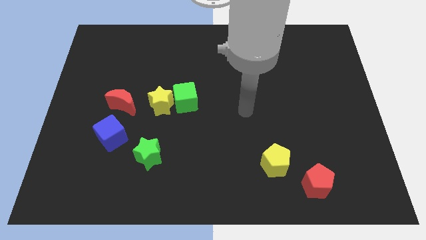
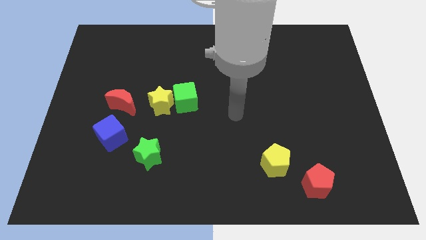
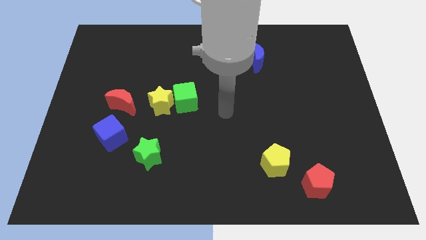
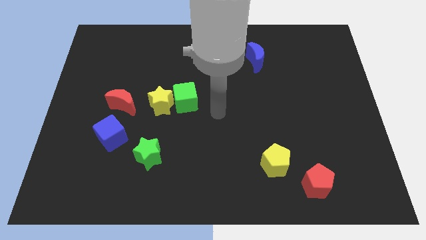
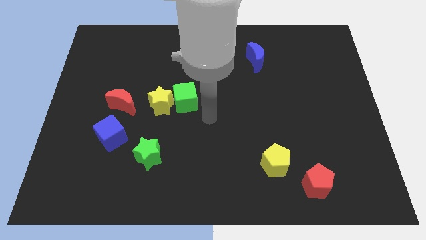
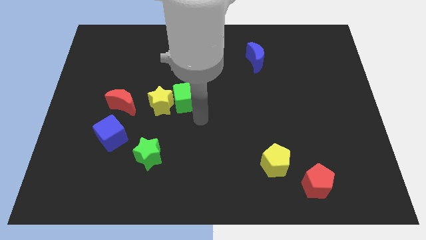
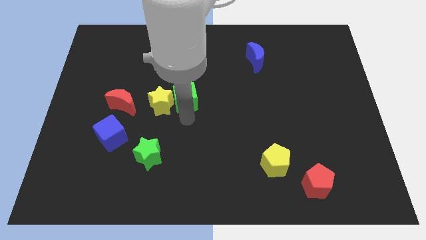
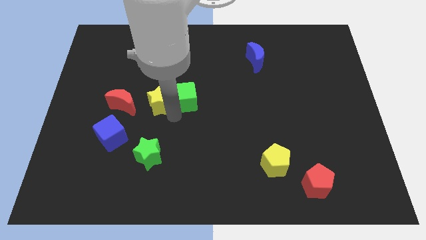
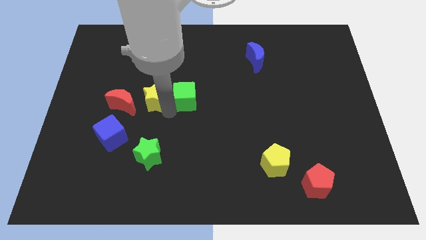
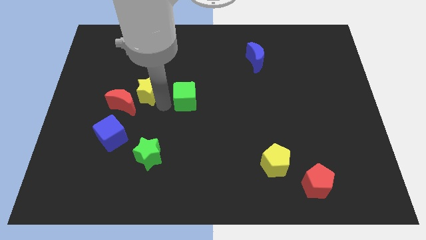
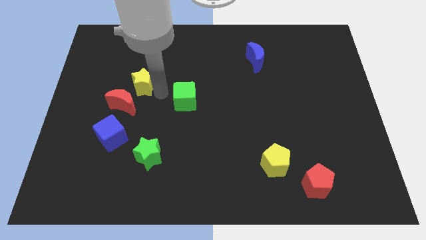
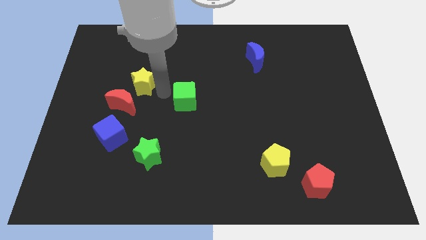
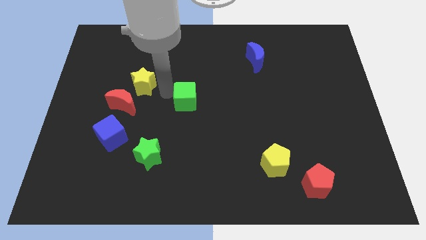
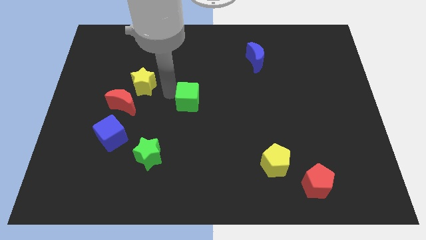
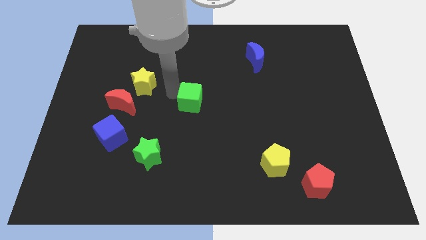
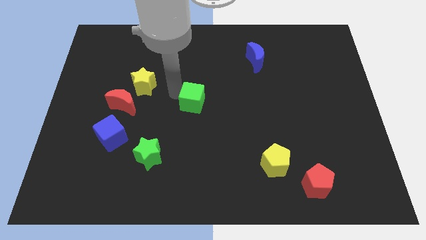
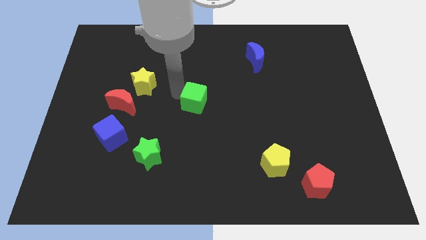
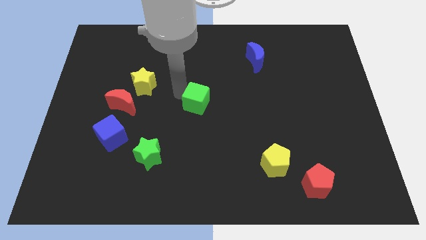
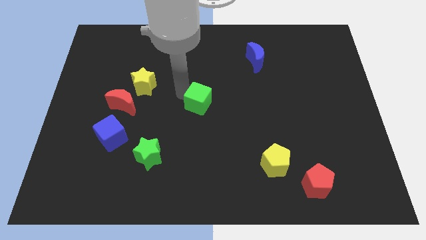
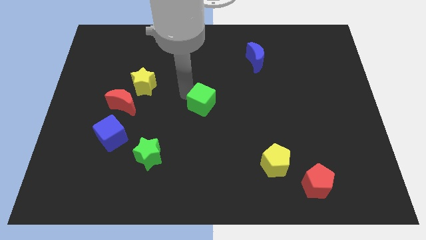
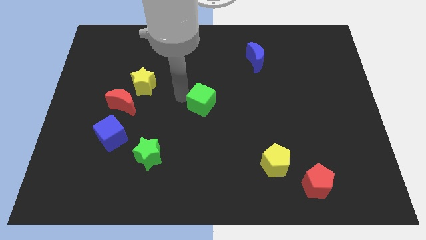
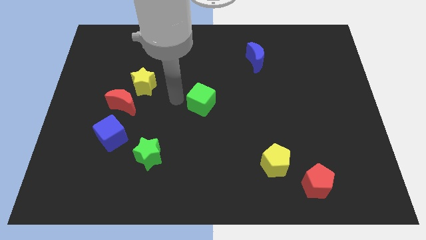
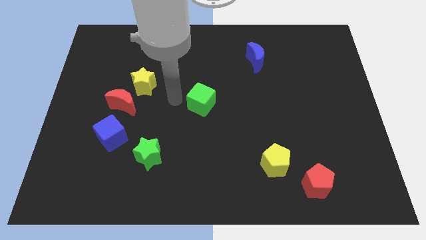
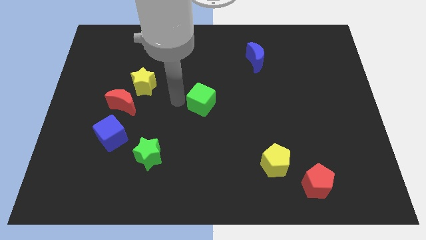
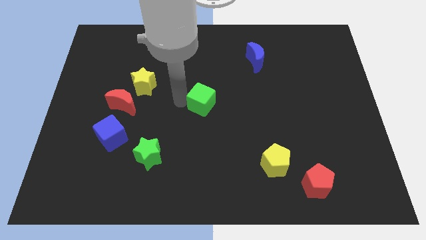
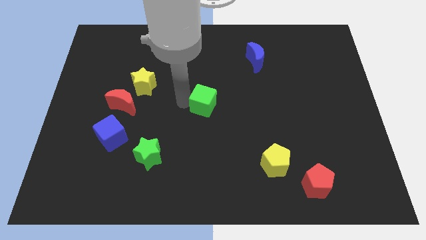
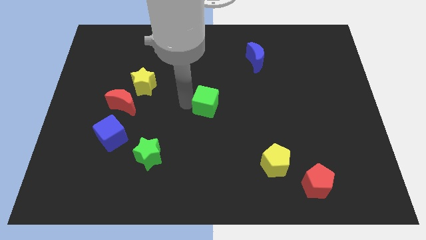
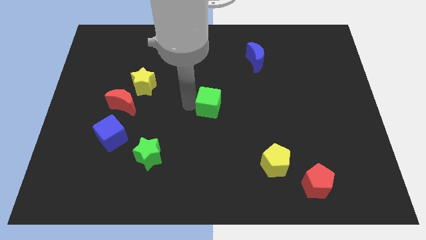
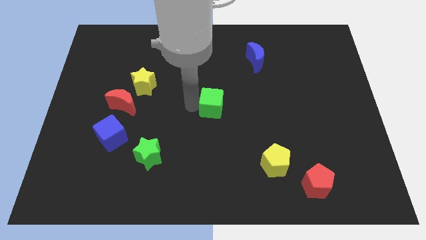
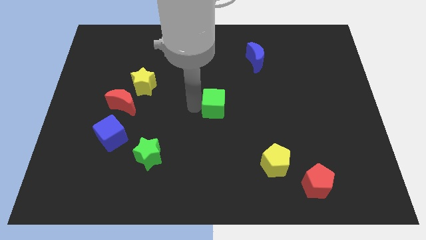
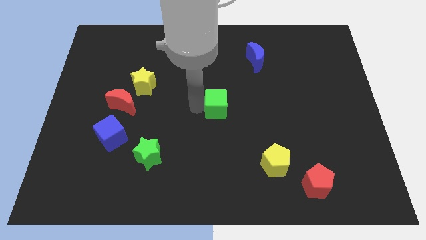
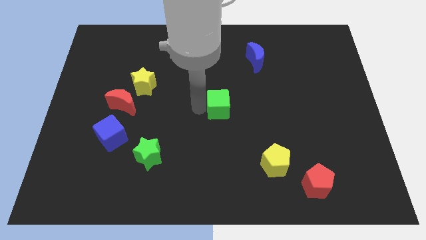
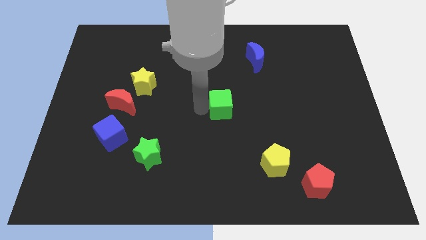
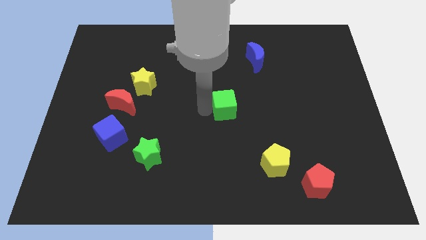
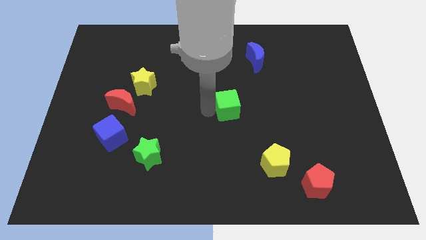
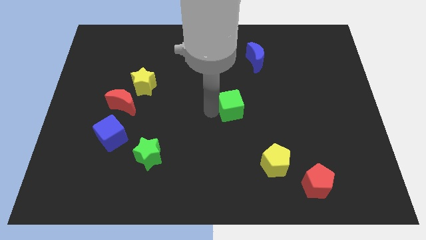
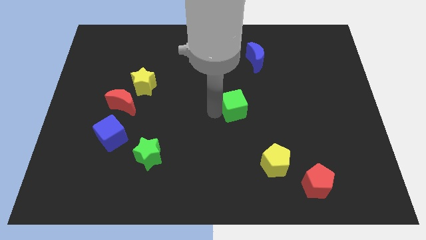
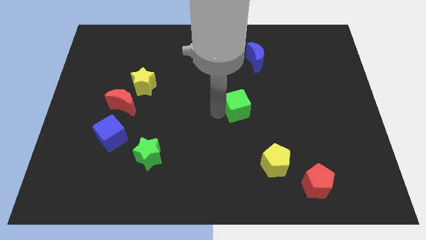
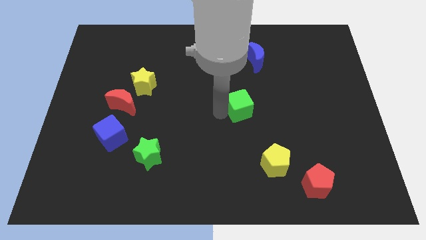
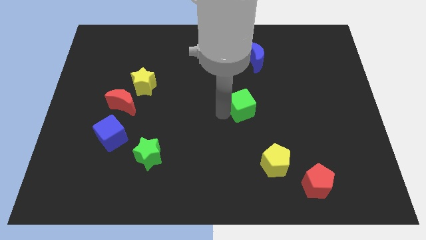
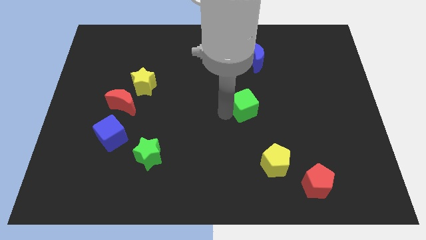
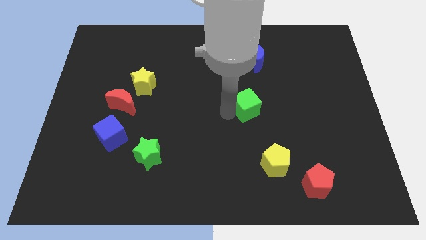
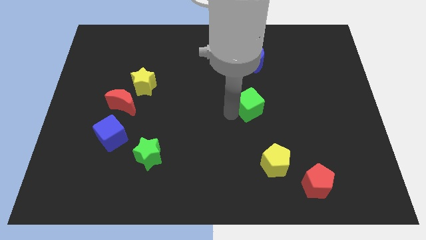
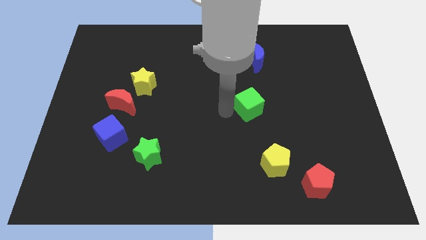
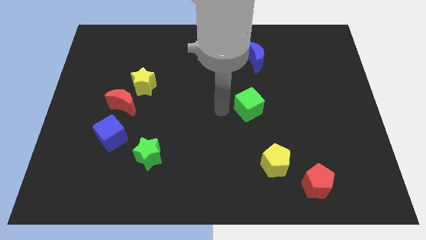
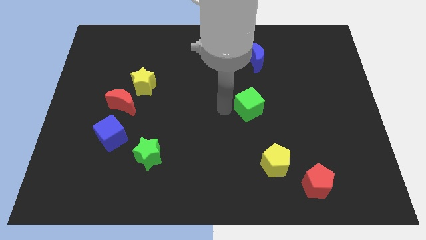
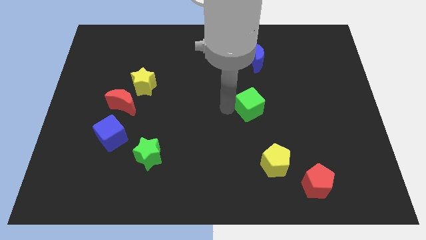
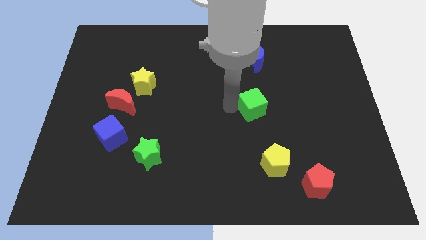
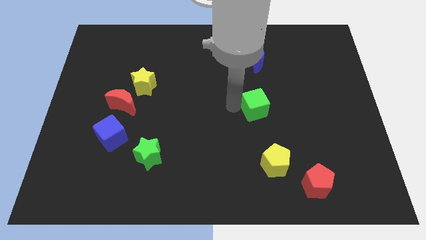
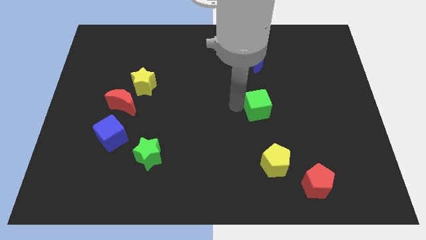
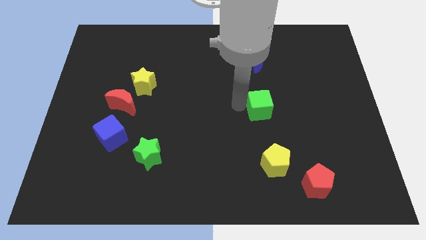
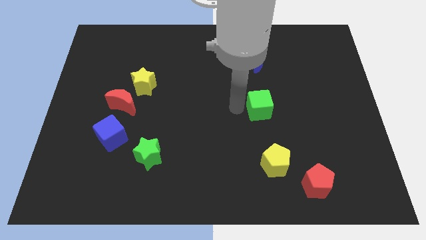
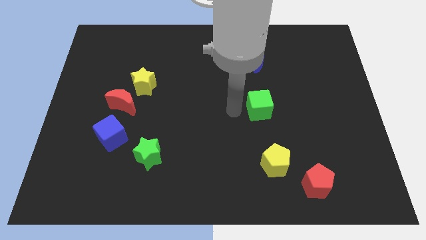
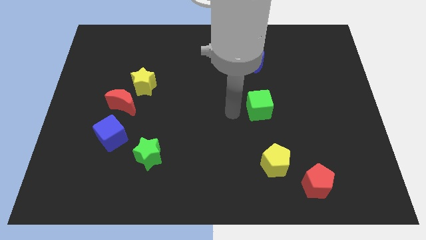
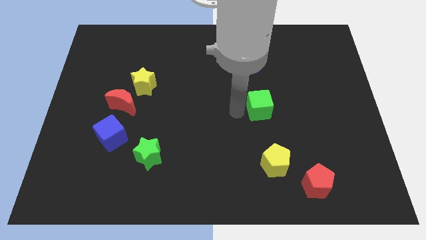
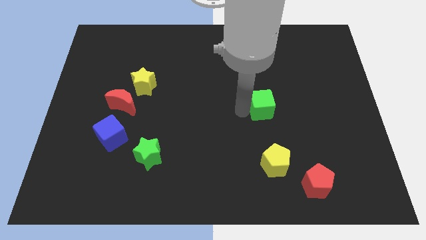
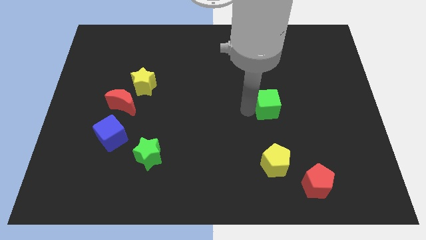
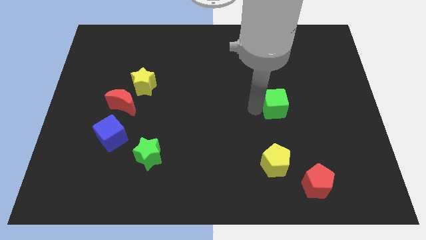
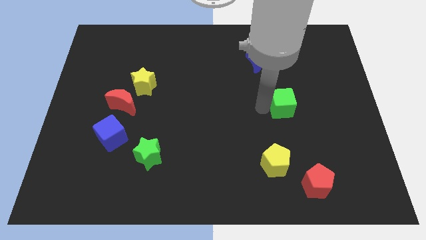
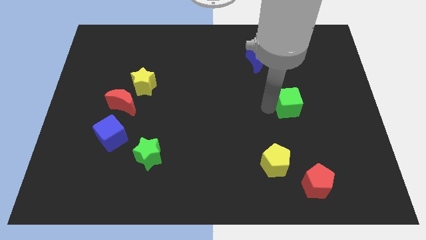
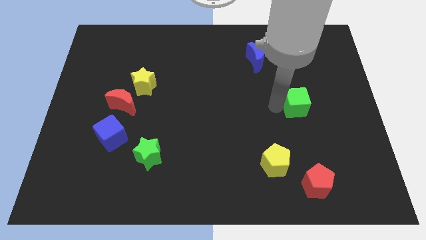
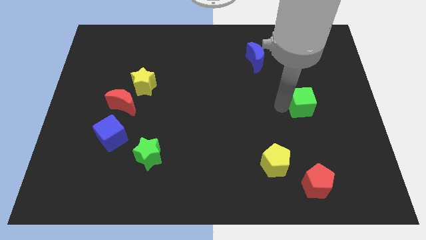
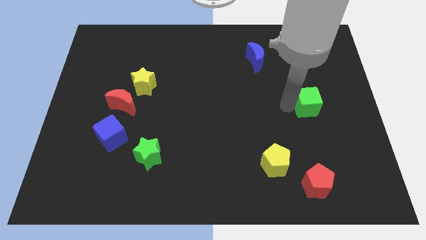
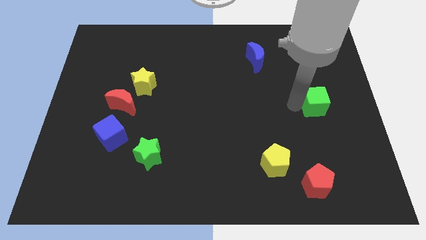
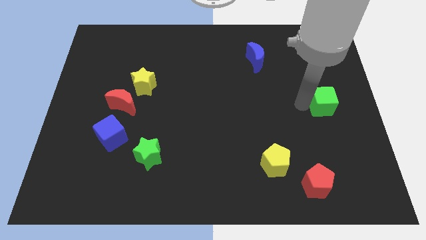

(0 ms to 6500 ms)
put the green cube to the right side of the board
